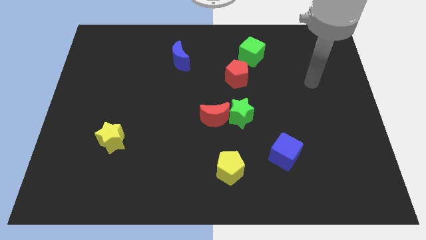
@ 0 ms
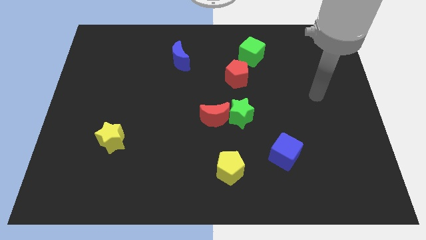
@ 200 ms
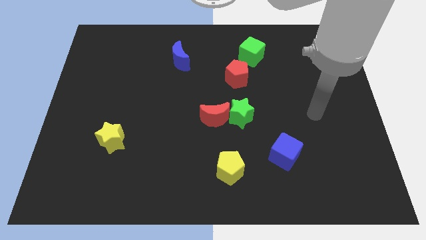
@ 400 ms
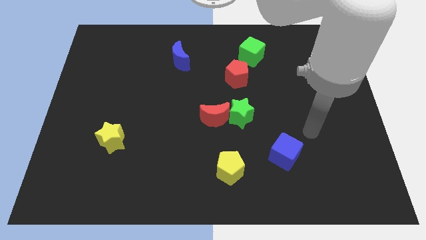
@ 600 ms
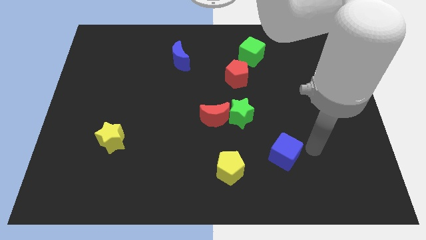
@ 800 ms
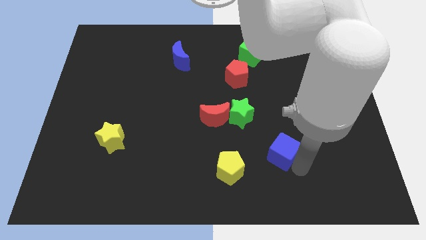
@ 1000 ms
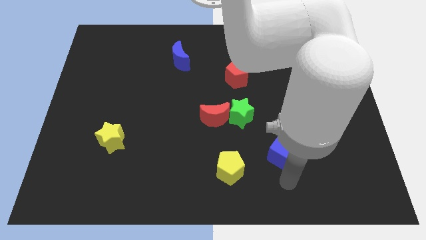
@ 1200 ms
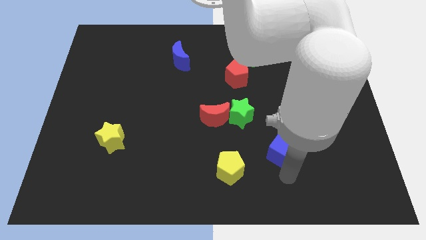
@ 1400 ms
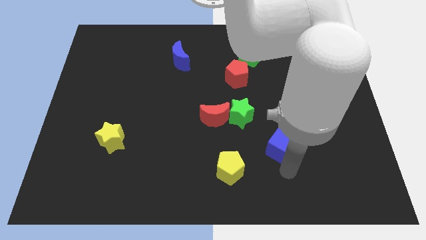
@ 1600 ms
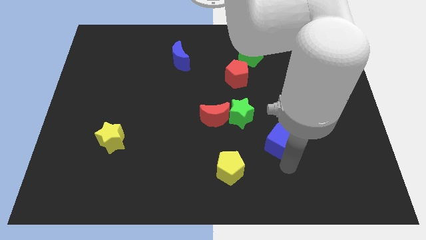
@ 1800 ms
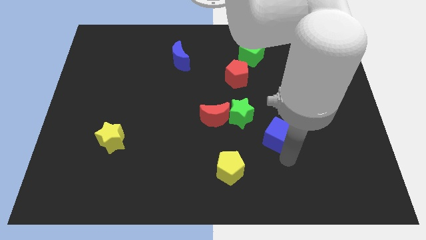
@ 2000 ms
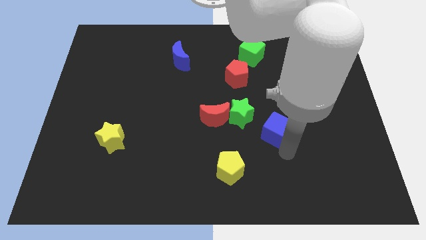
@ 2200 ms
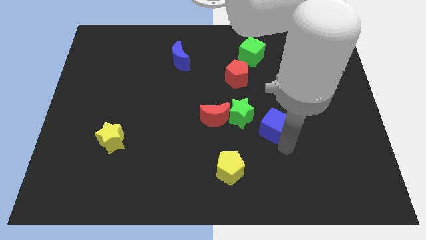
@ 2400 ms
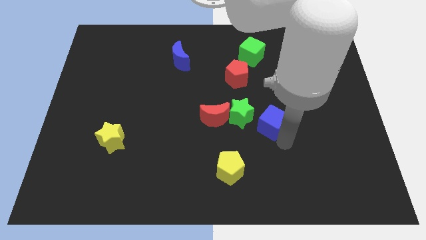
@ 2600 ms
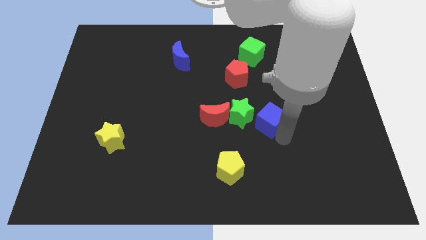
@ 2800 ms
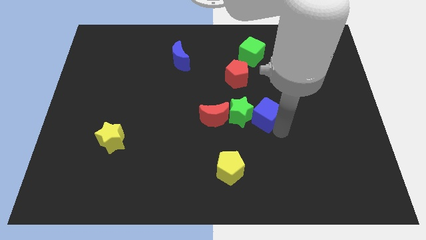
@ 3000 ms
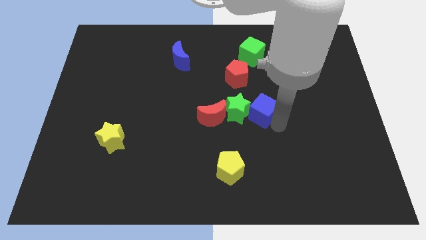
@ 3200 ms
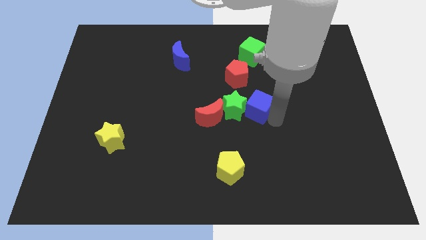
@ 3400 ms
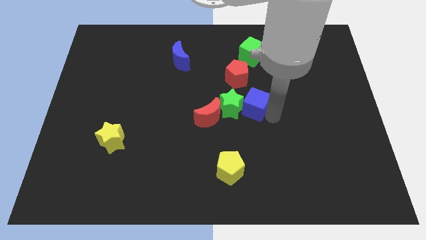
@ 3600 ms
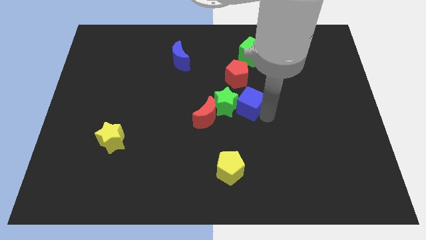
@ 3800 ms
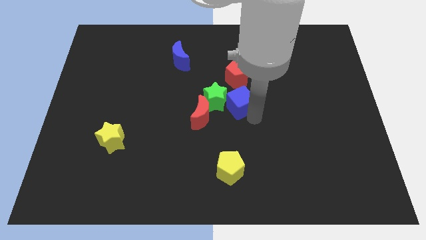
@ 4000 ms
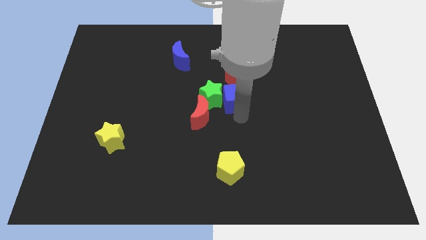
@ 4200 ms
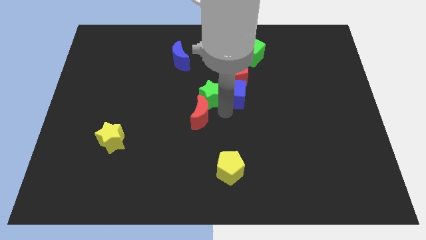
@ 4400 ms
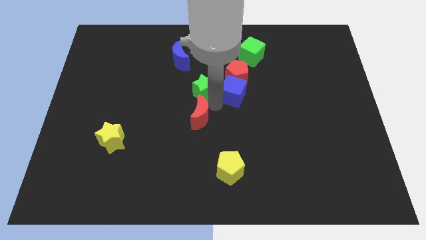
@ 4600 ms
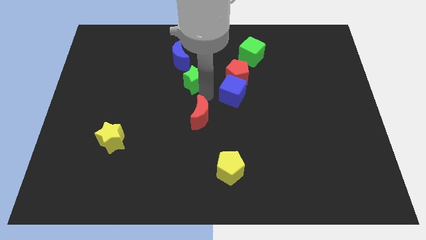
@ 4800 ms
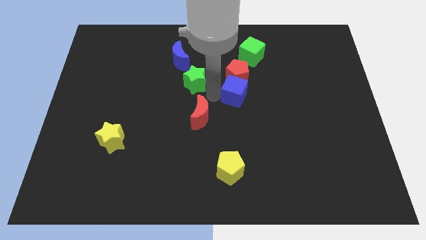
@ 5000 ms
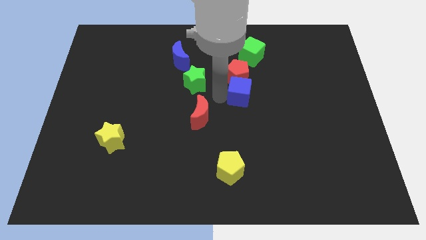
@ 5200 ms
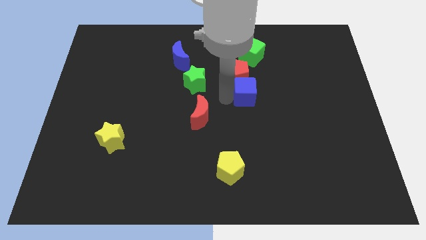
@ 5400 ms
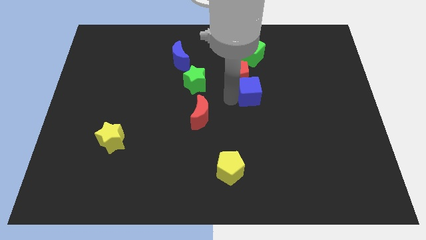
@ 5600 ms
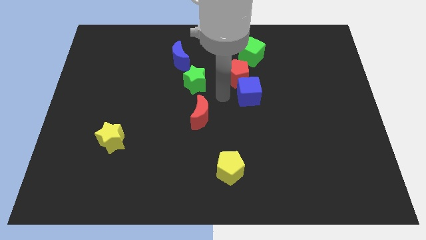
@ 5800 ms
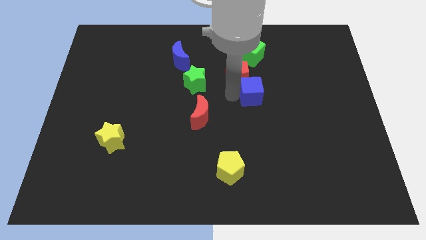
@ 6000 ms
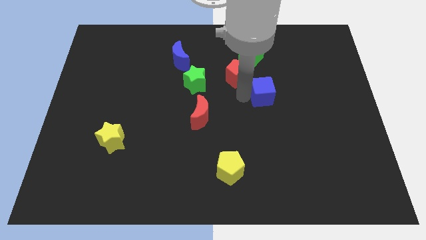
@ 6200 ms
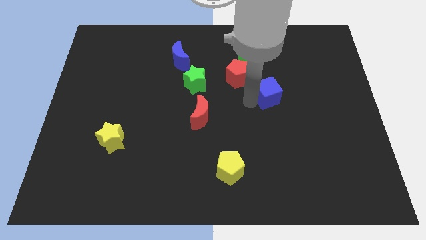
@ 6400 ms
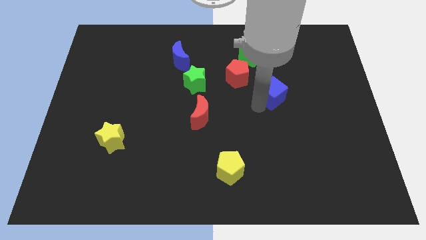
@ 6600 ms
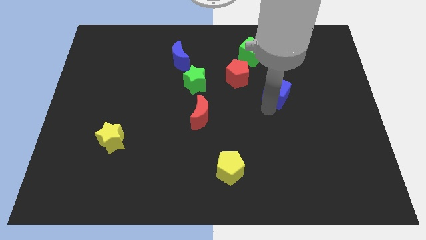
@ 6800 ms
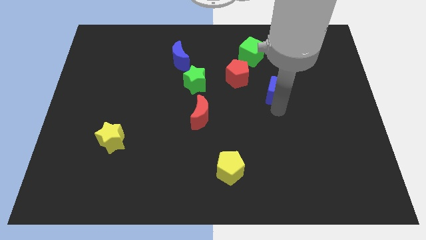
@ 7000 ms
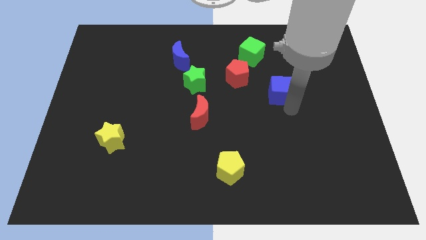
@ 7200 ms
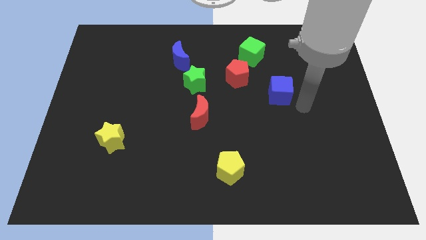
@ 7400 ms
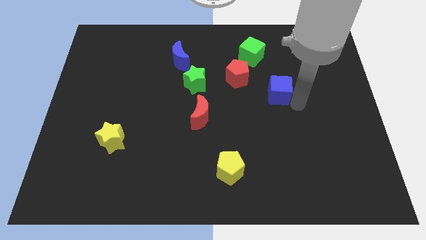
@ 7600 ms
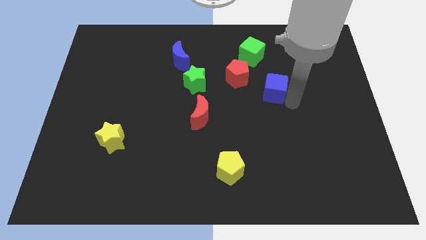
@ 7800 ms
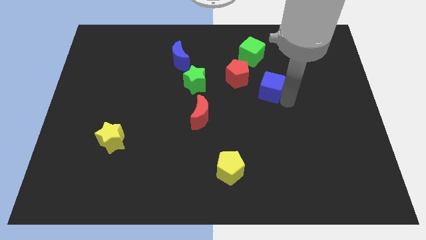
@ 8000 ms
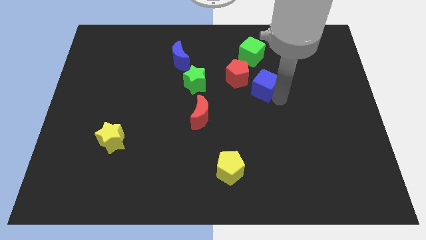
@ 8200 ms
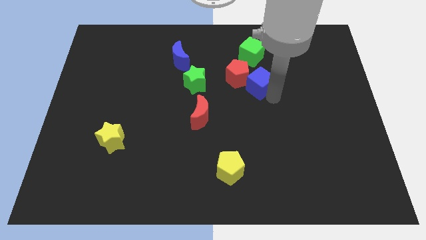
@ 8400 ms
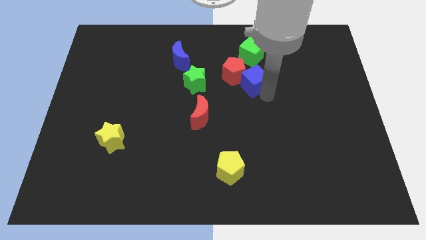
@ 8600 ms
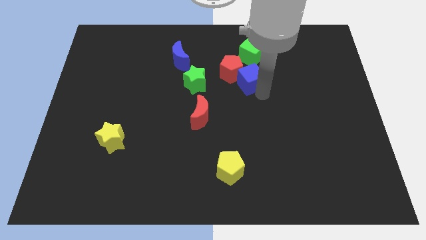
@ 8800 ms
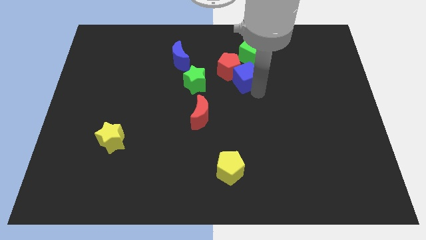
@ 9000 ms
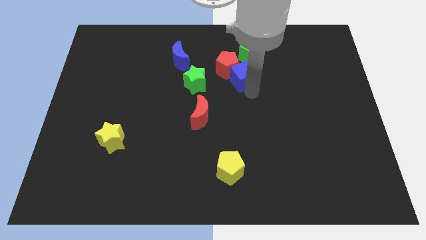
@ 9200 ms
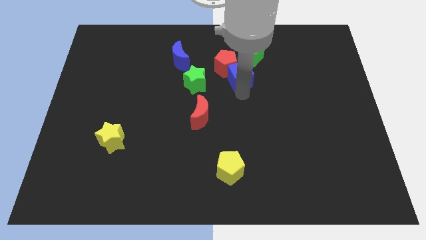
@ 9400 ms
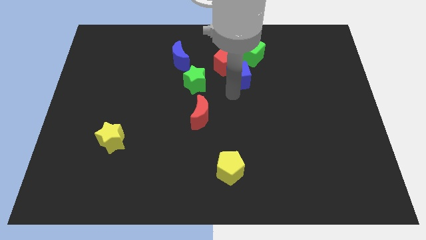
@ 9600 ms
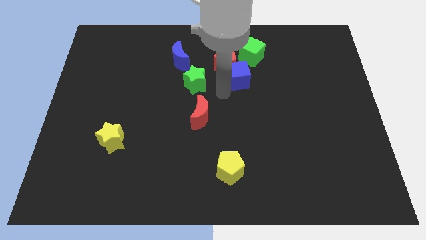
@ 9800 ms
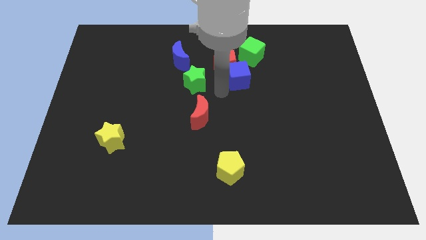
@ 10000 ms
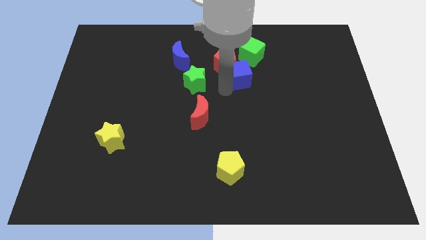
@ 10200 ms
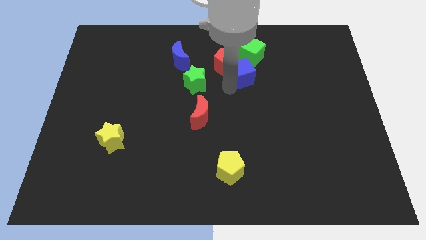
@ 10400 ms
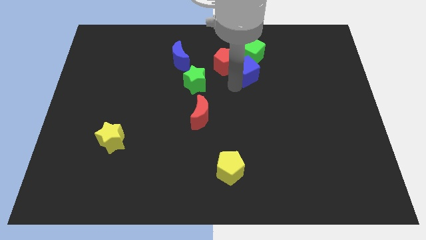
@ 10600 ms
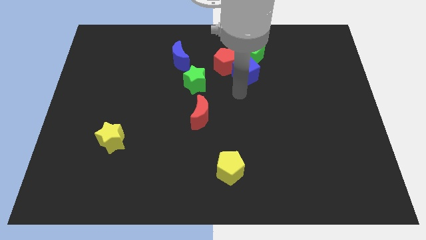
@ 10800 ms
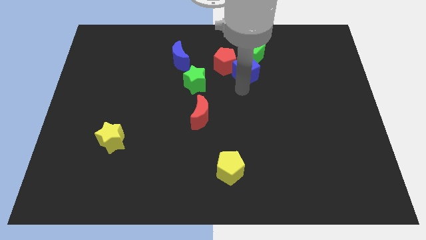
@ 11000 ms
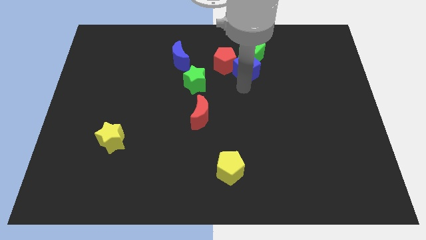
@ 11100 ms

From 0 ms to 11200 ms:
slide the blue cube next to the green cube
